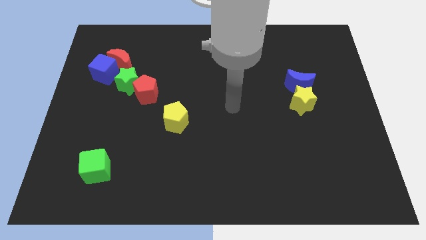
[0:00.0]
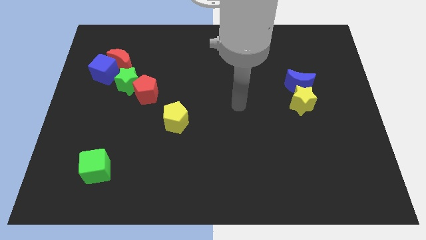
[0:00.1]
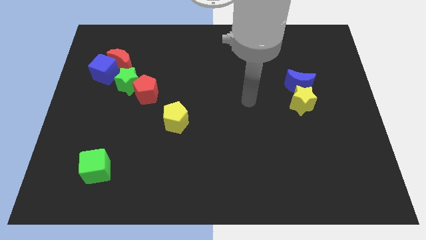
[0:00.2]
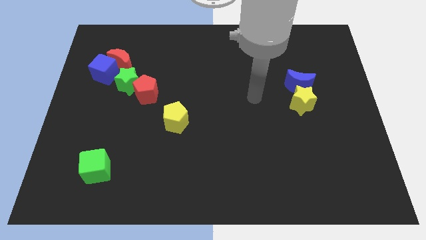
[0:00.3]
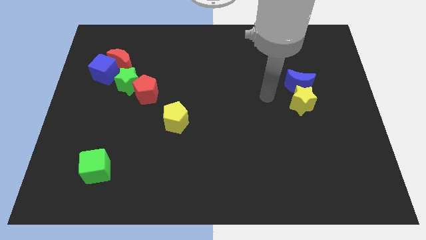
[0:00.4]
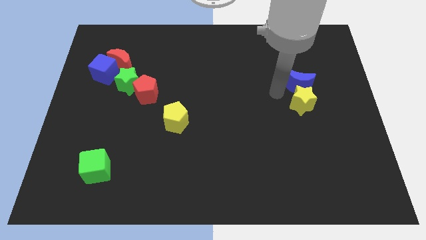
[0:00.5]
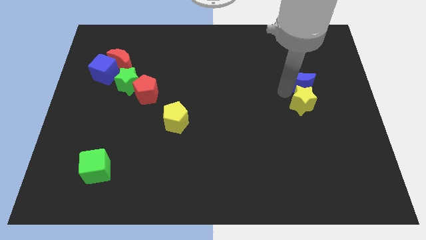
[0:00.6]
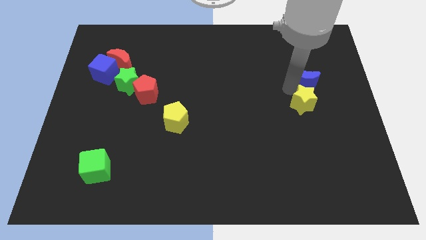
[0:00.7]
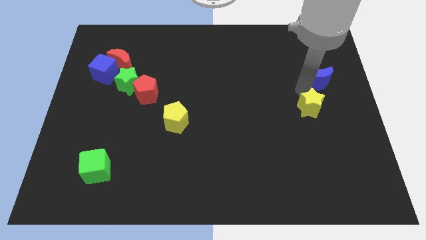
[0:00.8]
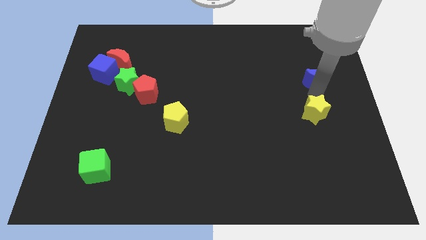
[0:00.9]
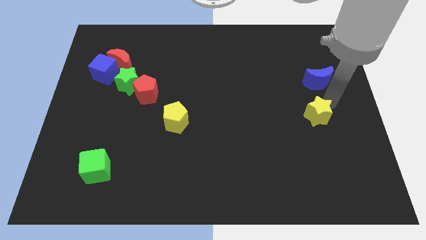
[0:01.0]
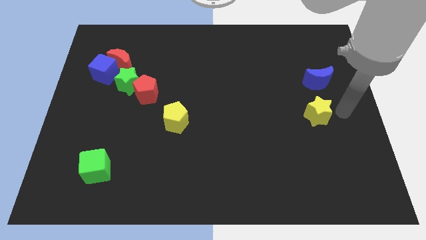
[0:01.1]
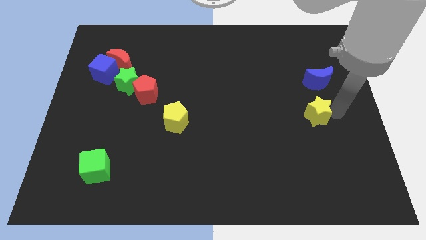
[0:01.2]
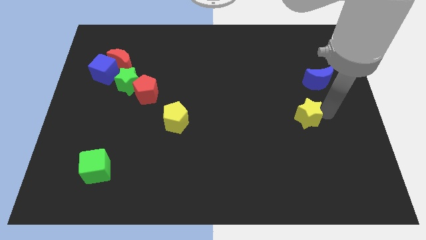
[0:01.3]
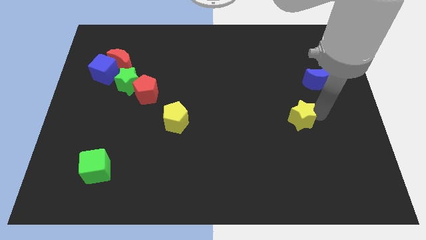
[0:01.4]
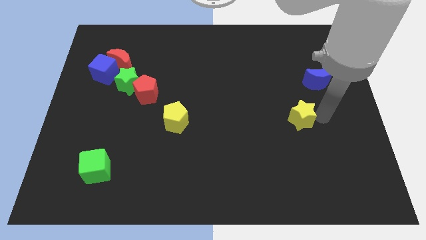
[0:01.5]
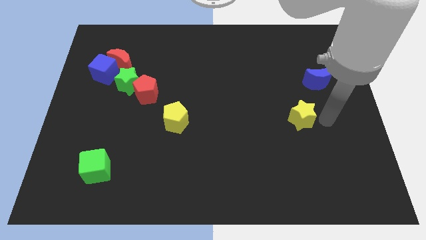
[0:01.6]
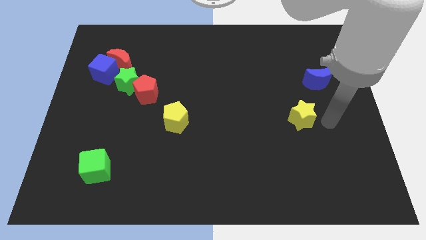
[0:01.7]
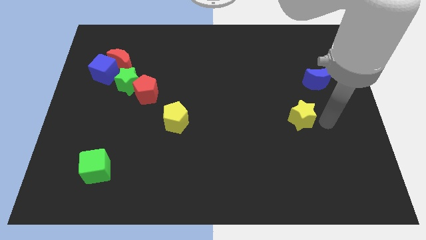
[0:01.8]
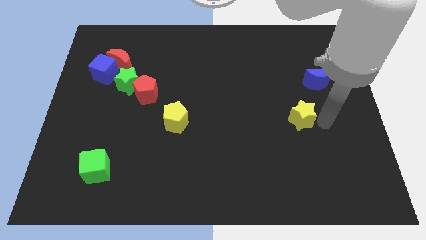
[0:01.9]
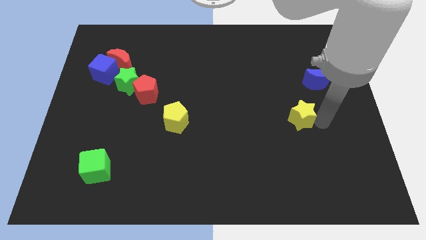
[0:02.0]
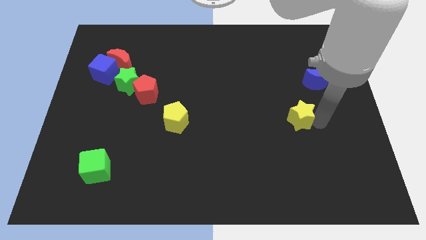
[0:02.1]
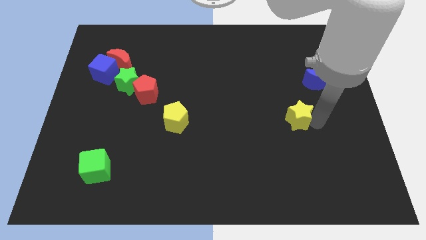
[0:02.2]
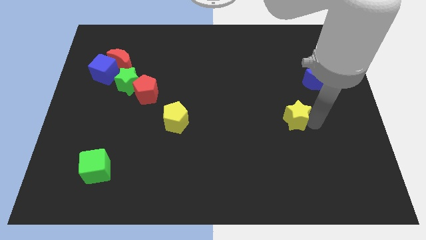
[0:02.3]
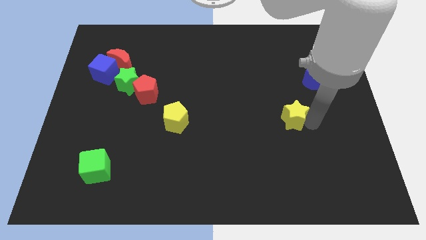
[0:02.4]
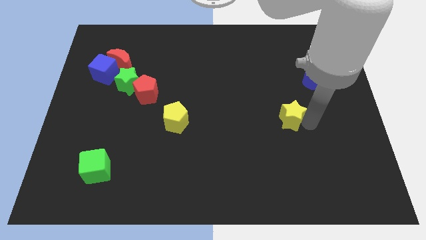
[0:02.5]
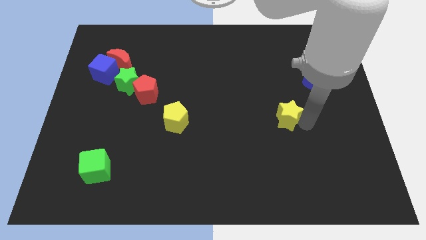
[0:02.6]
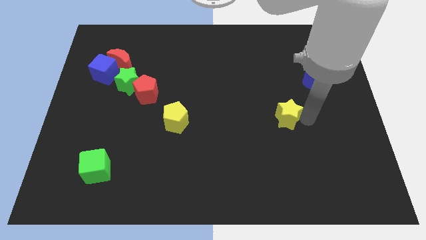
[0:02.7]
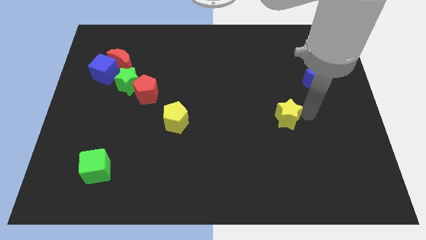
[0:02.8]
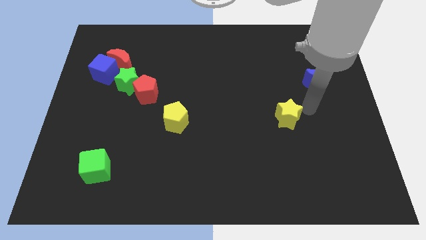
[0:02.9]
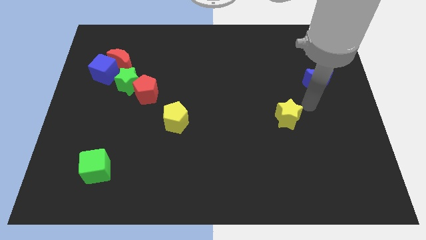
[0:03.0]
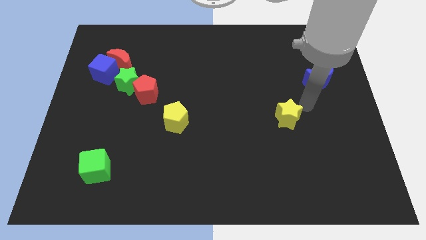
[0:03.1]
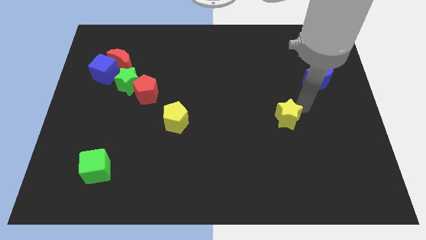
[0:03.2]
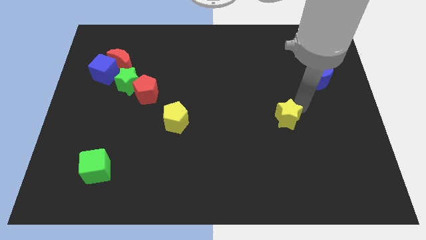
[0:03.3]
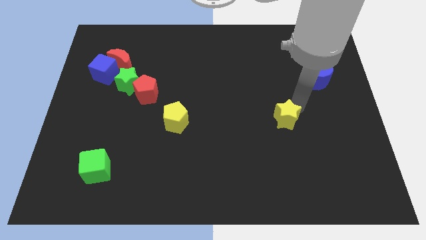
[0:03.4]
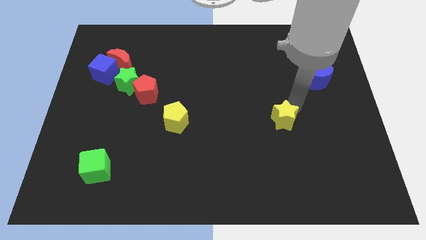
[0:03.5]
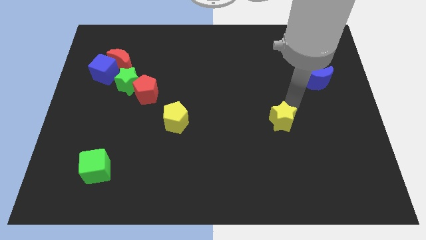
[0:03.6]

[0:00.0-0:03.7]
push the yellow star a little down and then left

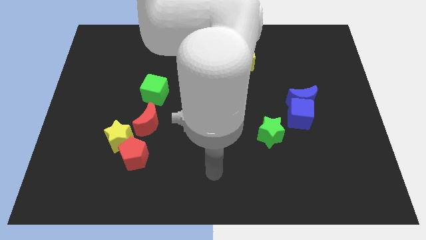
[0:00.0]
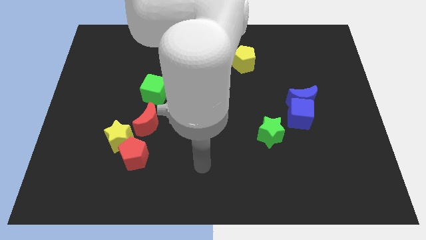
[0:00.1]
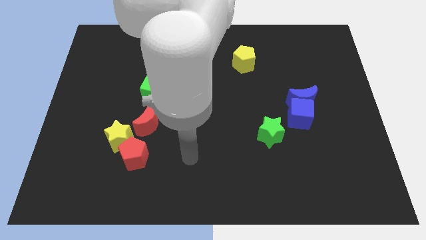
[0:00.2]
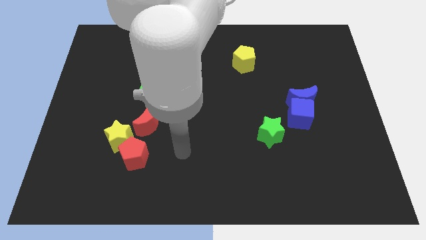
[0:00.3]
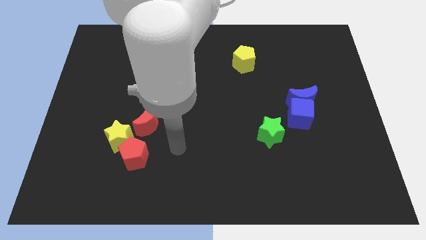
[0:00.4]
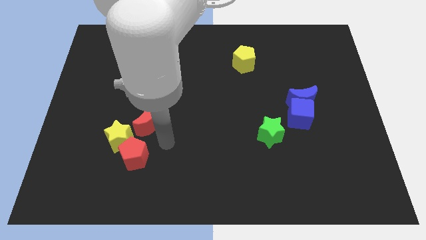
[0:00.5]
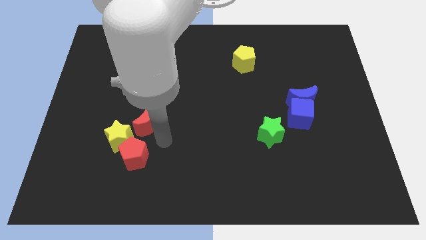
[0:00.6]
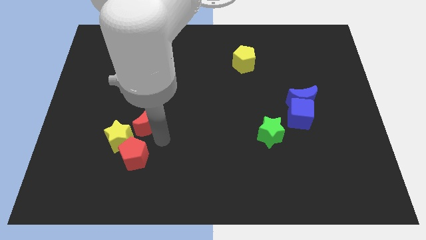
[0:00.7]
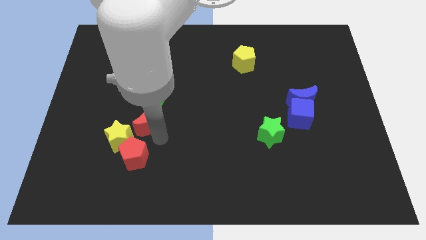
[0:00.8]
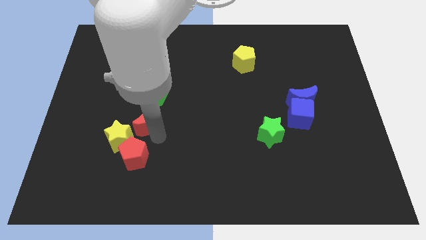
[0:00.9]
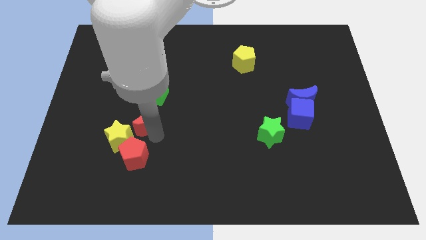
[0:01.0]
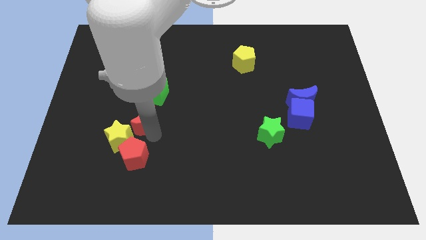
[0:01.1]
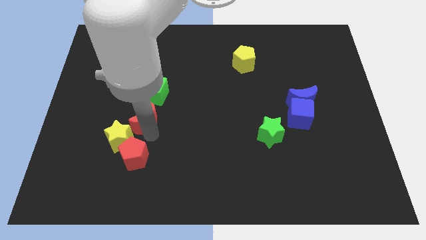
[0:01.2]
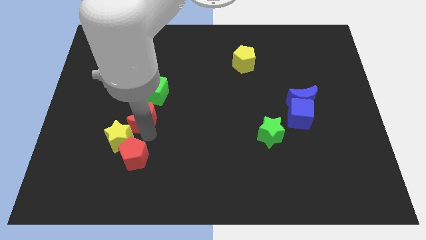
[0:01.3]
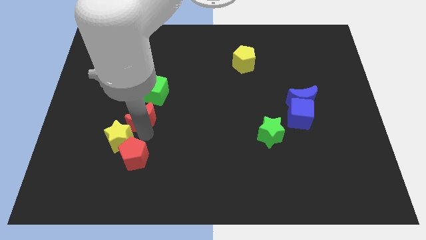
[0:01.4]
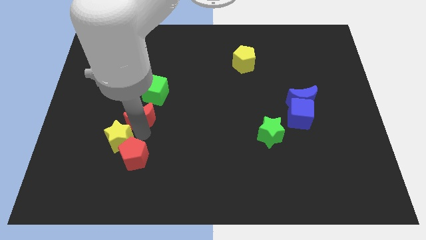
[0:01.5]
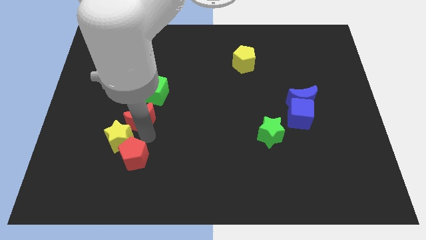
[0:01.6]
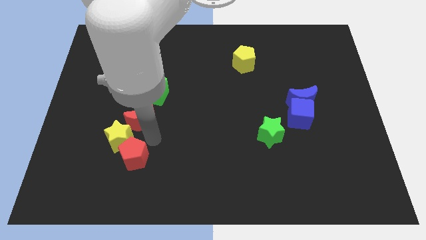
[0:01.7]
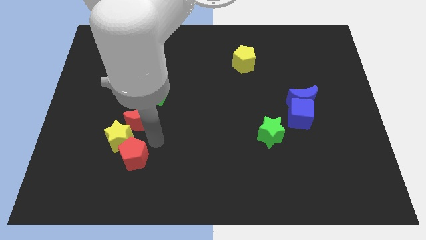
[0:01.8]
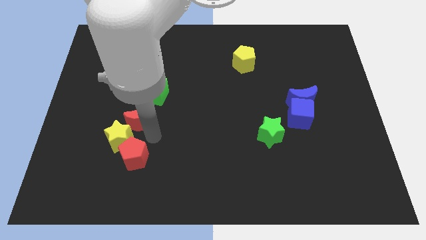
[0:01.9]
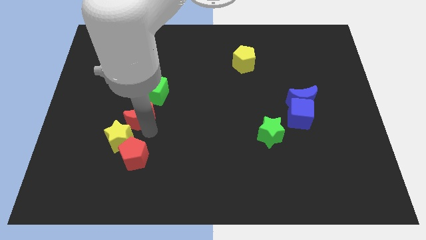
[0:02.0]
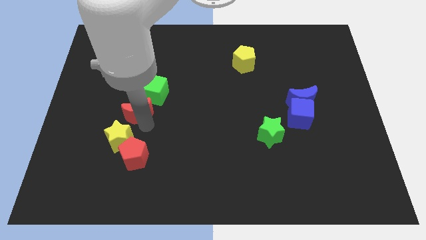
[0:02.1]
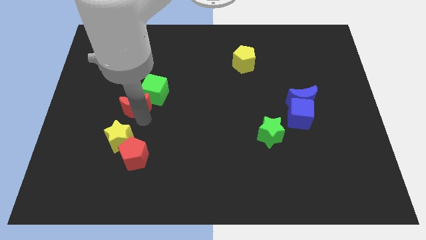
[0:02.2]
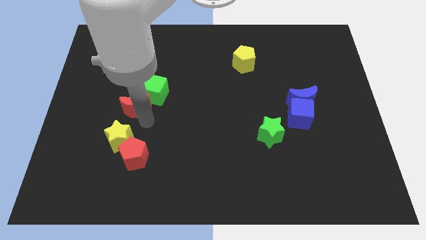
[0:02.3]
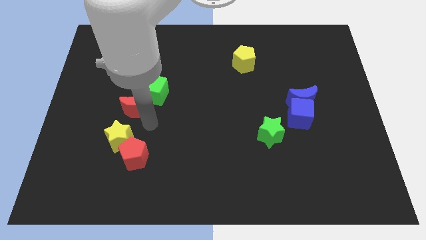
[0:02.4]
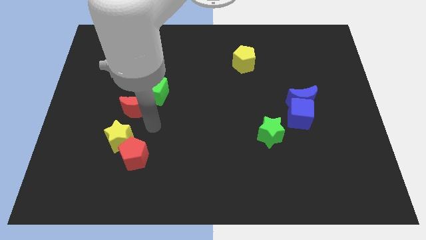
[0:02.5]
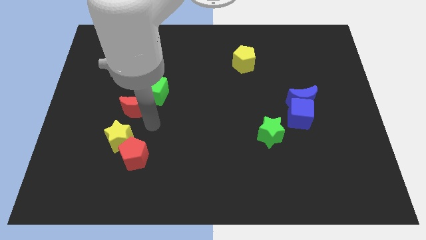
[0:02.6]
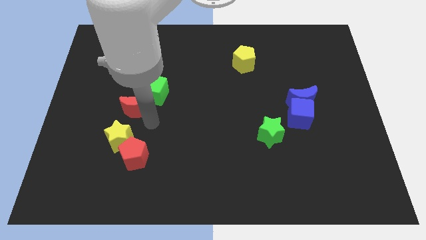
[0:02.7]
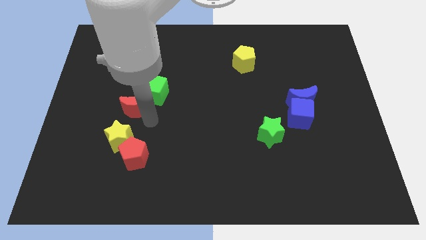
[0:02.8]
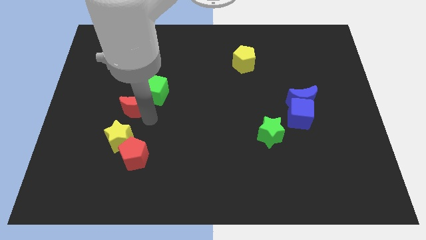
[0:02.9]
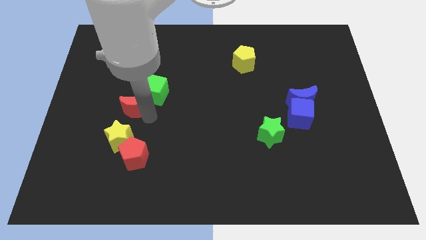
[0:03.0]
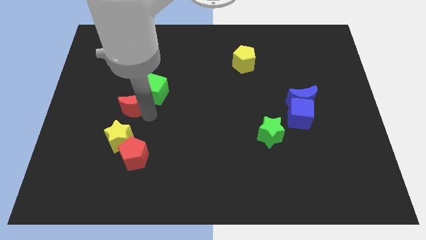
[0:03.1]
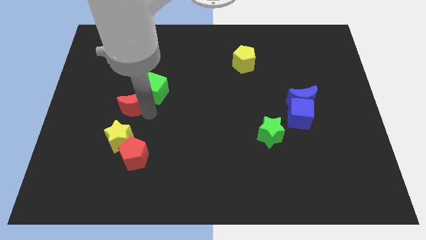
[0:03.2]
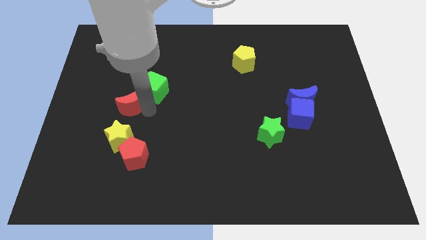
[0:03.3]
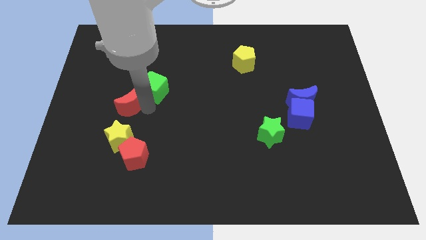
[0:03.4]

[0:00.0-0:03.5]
move the red moon upwards and to the left a little

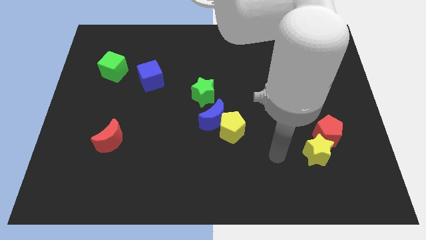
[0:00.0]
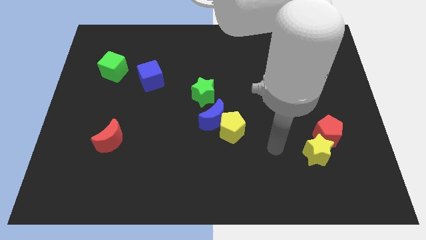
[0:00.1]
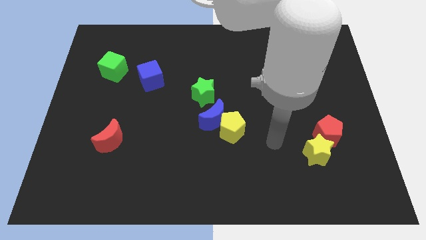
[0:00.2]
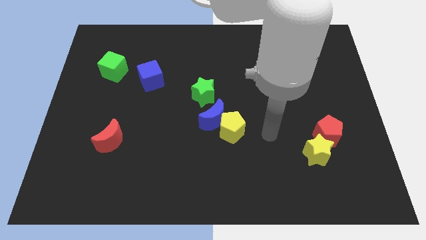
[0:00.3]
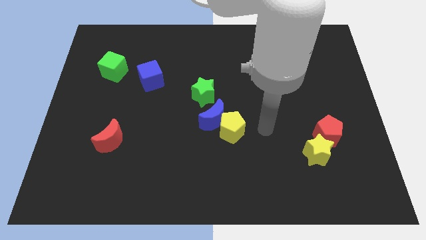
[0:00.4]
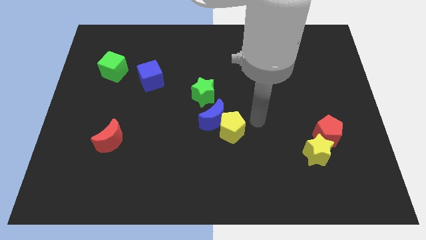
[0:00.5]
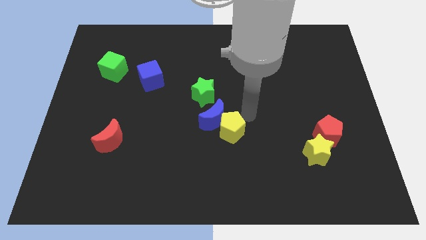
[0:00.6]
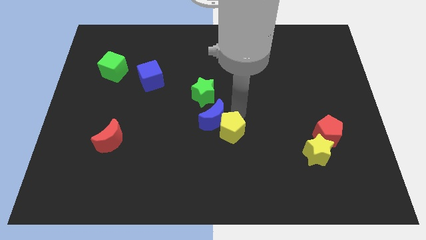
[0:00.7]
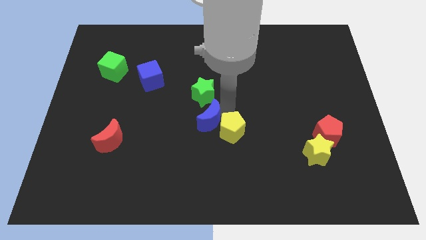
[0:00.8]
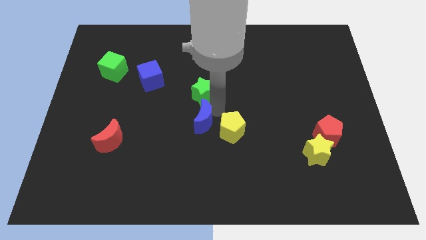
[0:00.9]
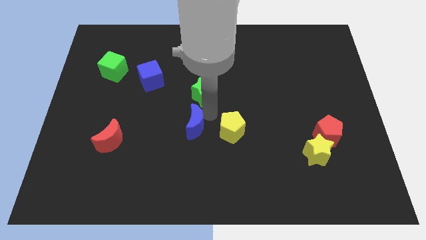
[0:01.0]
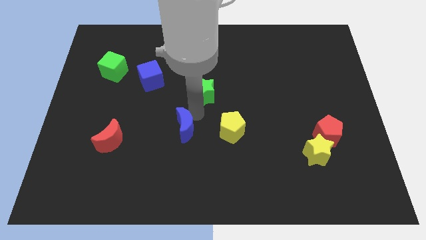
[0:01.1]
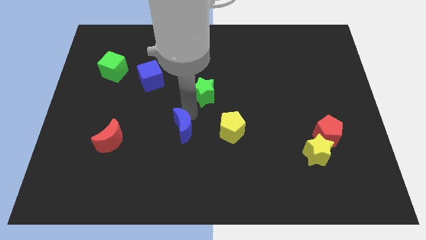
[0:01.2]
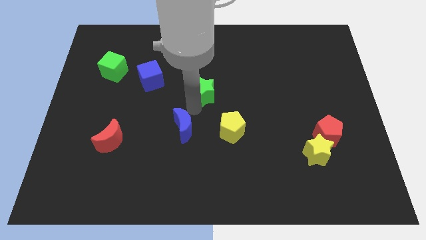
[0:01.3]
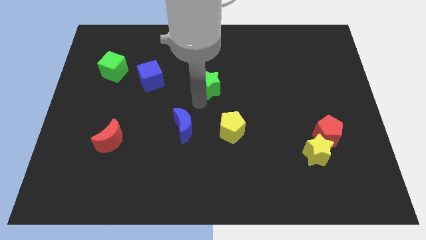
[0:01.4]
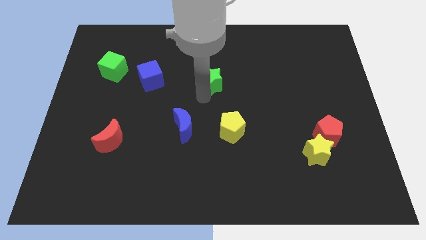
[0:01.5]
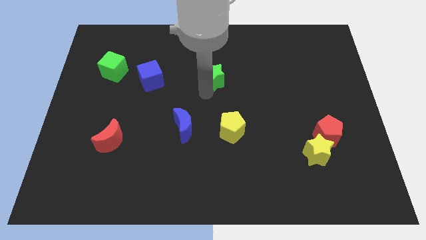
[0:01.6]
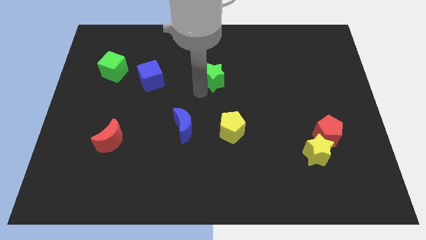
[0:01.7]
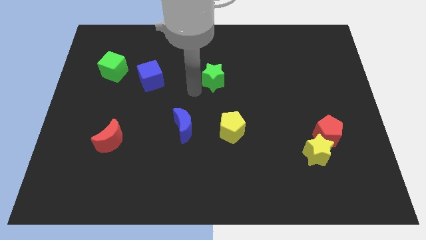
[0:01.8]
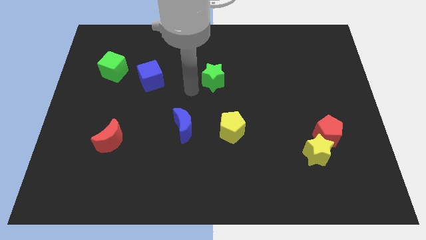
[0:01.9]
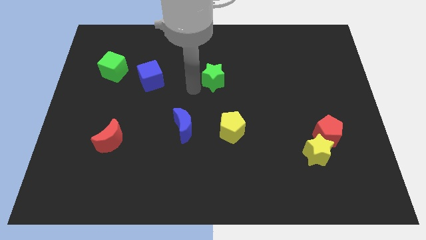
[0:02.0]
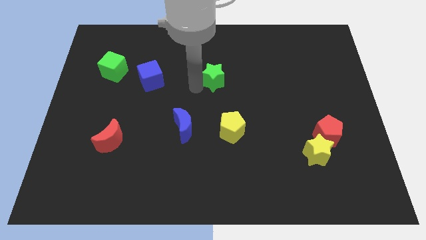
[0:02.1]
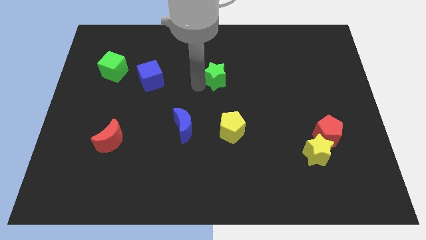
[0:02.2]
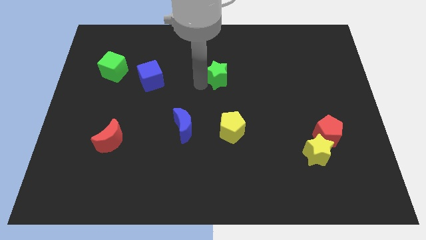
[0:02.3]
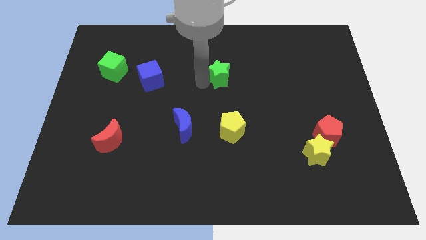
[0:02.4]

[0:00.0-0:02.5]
push the green star up and then to the right a bit
